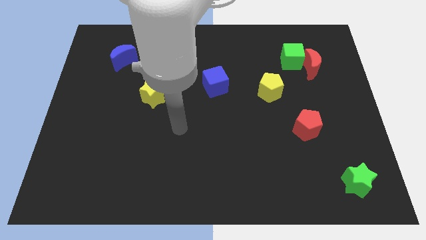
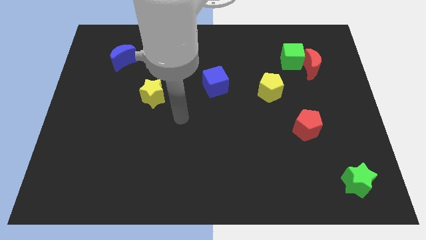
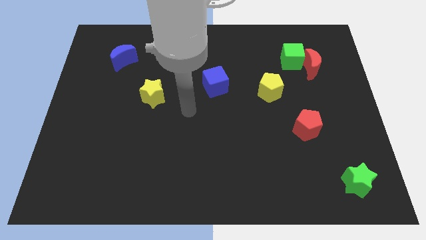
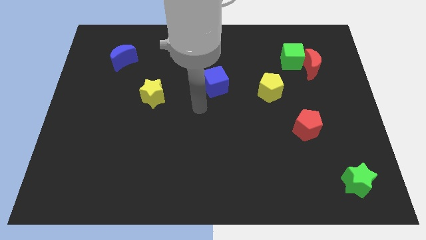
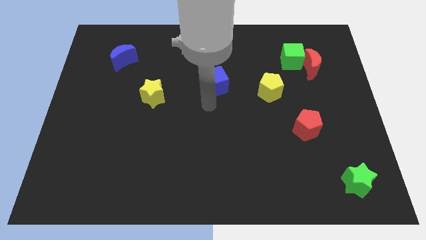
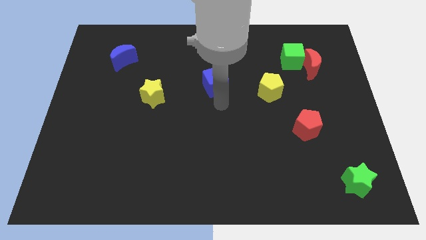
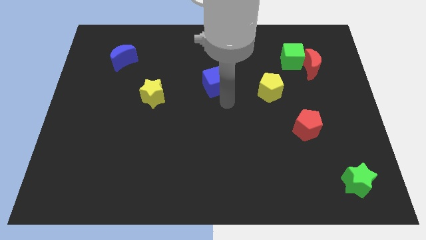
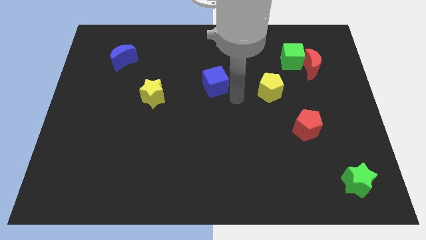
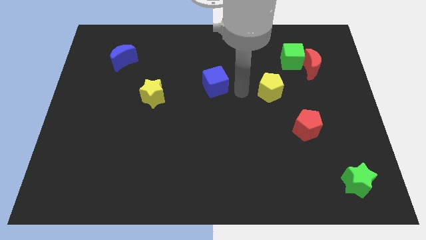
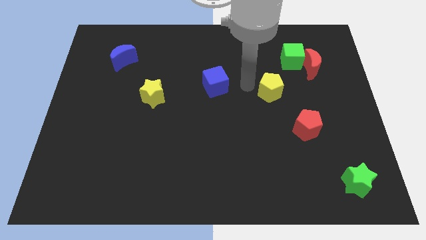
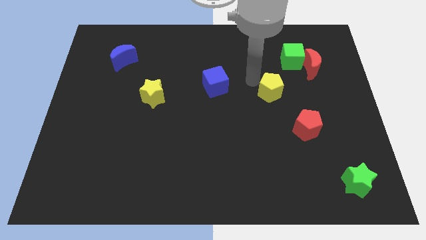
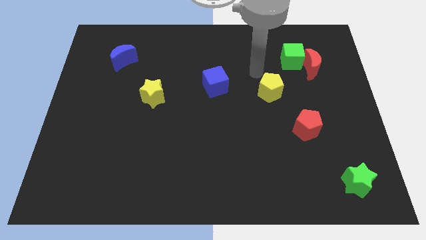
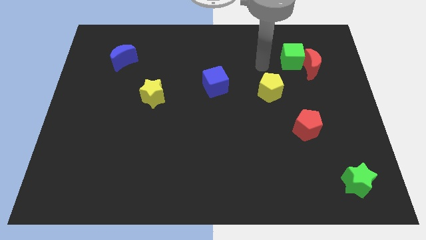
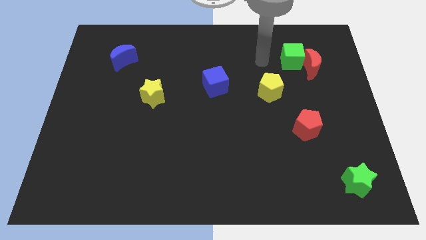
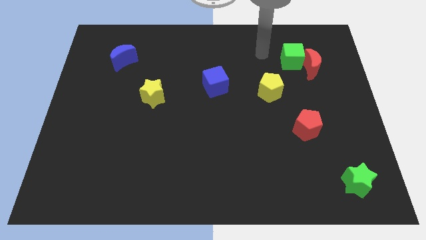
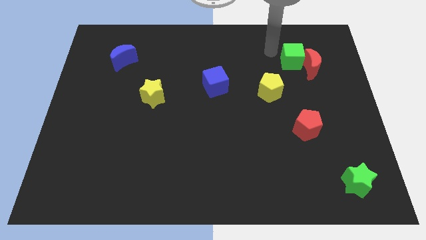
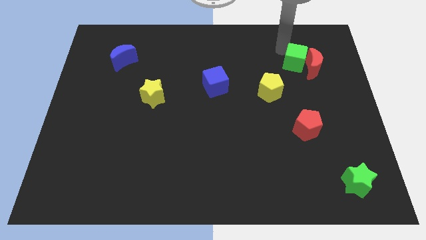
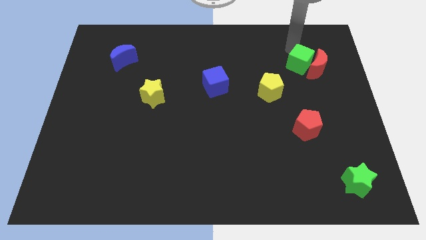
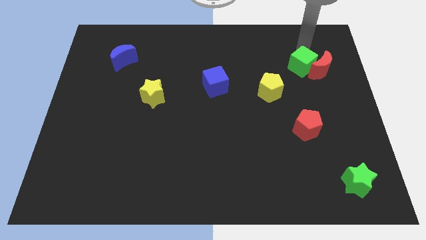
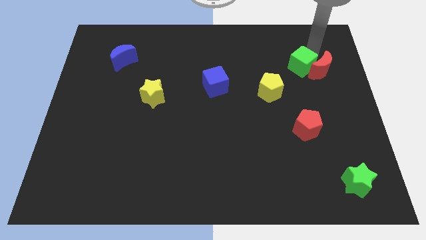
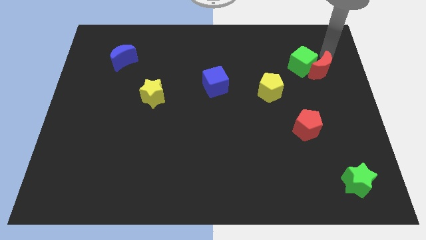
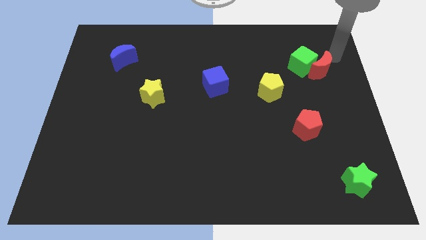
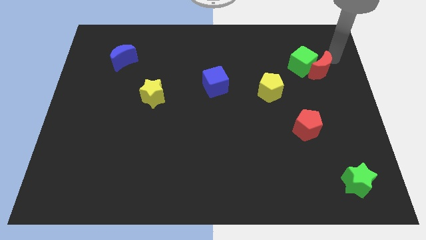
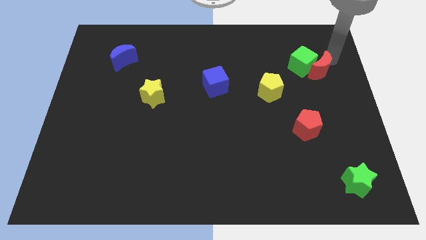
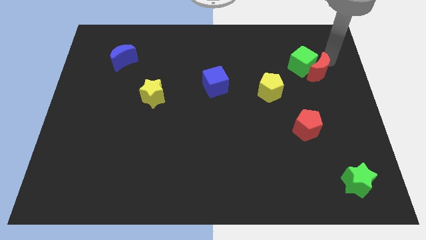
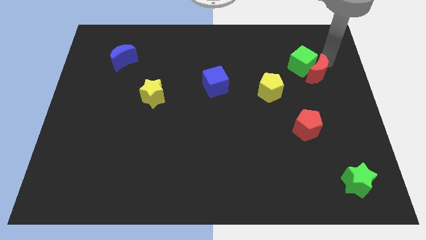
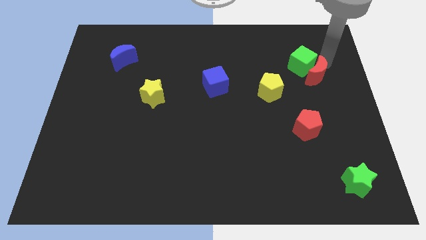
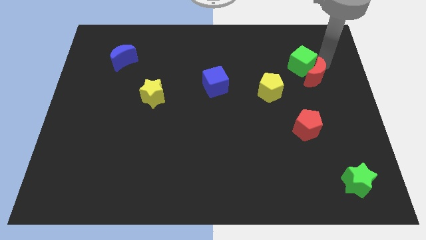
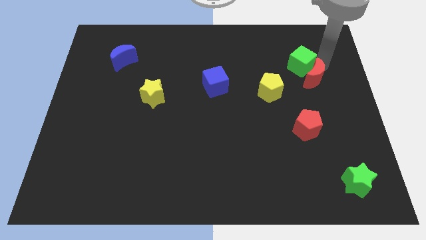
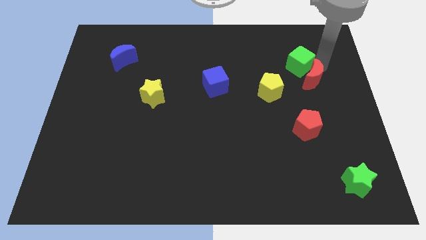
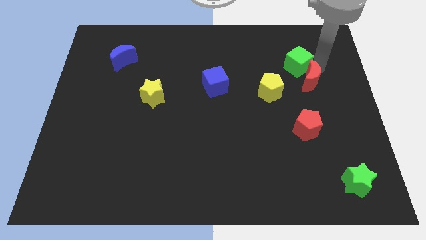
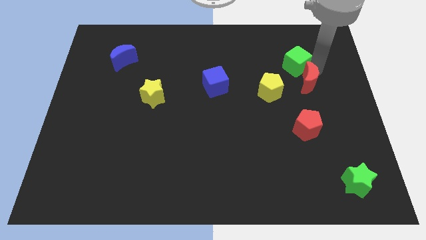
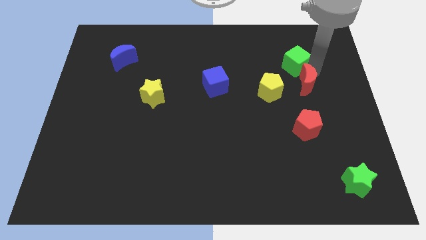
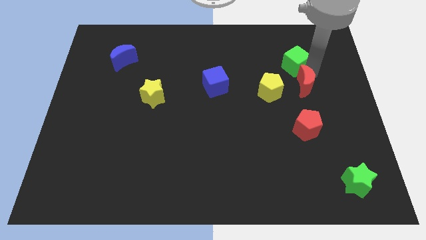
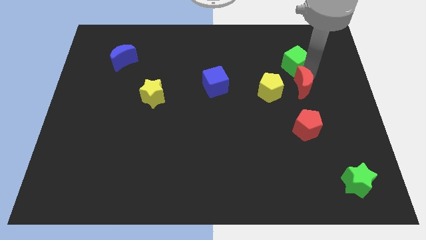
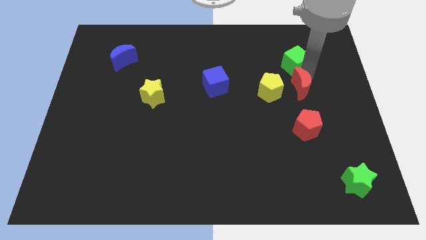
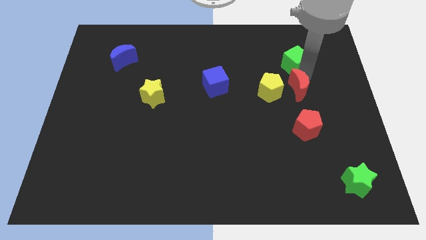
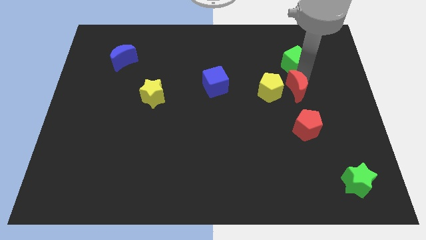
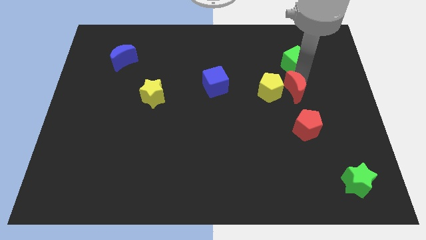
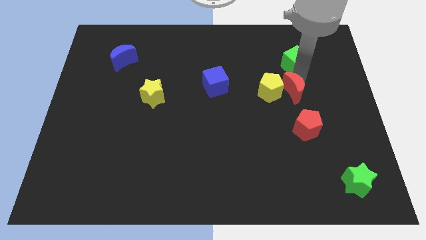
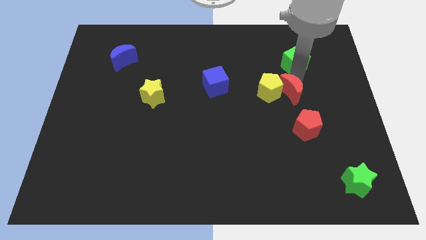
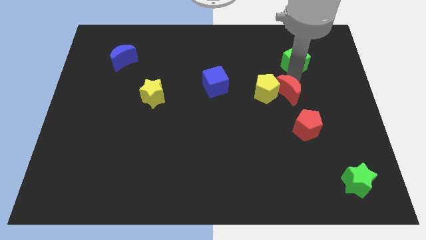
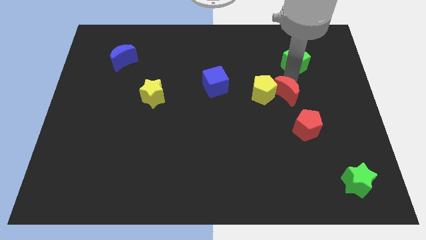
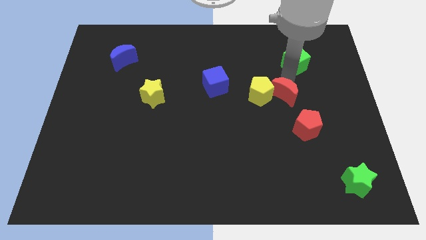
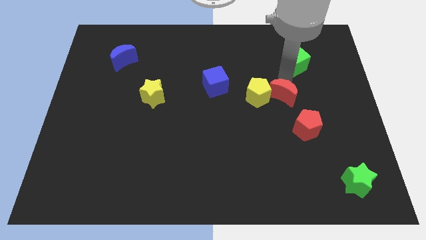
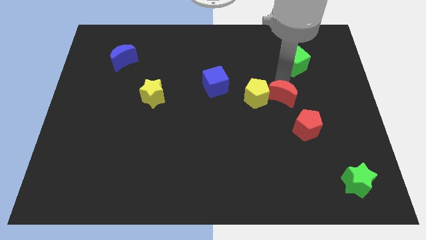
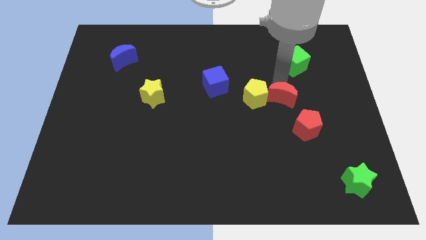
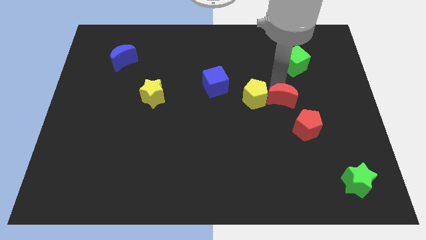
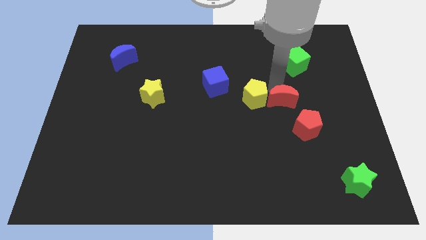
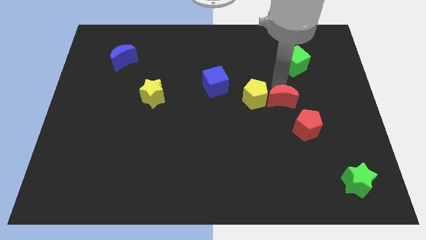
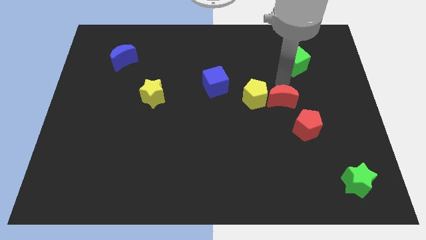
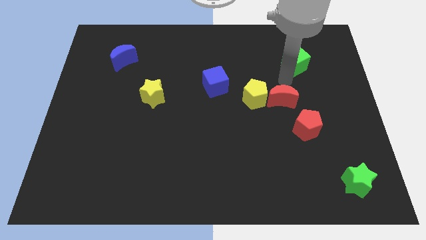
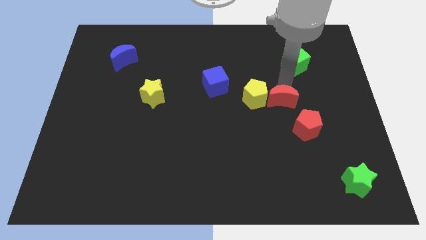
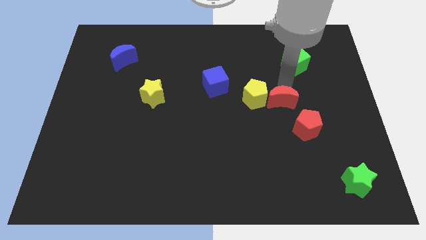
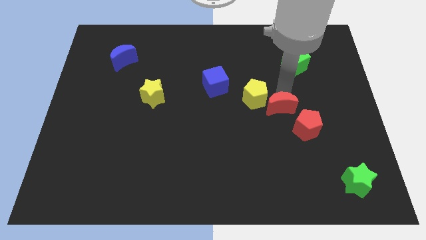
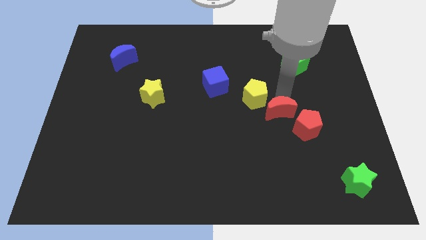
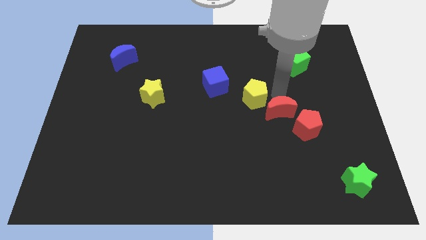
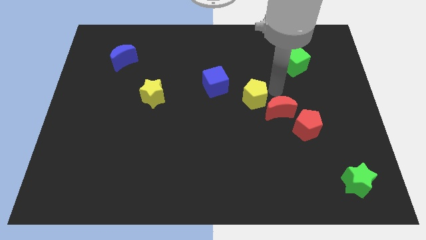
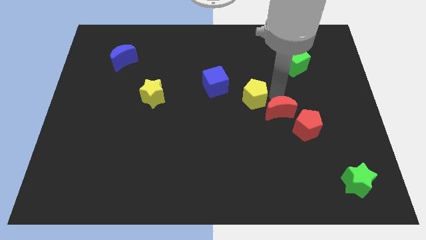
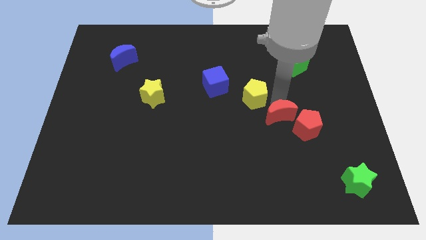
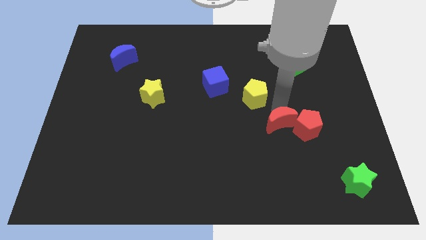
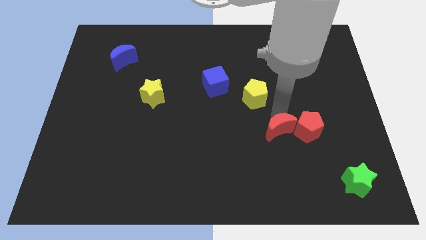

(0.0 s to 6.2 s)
slide the red moon to the bottom left of the red pentagon

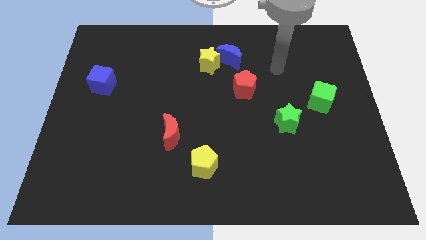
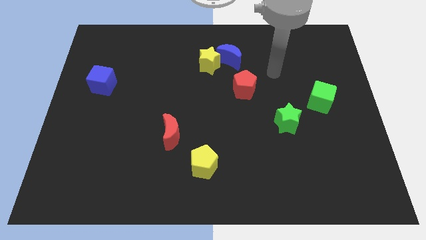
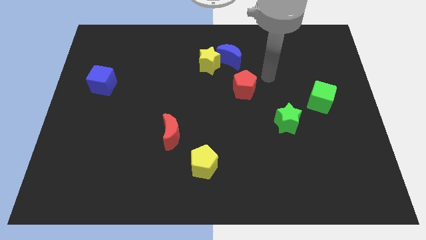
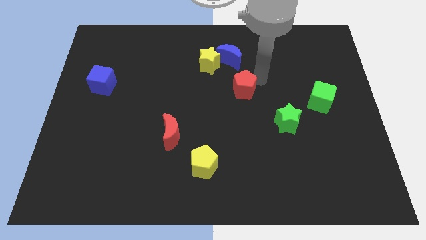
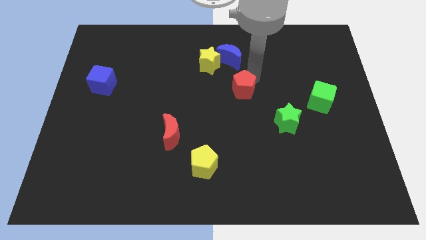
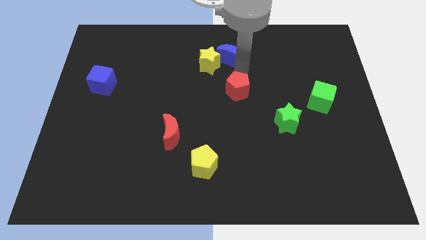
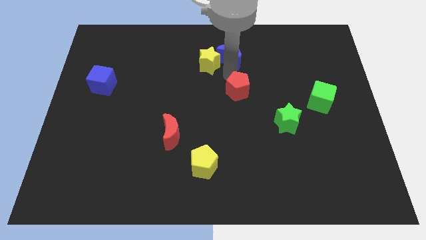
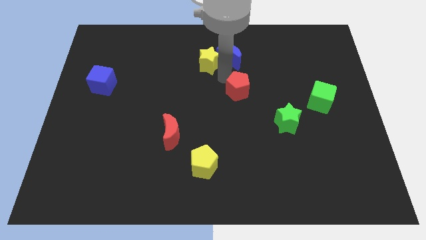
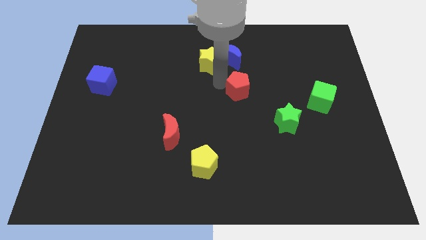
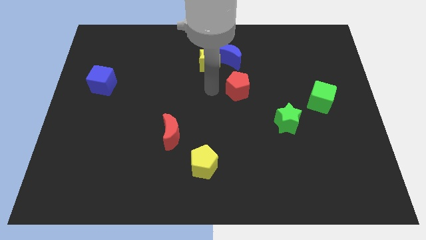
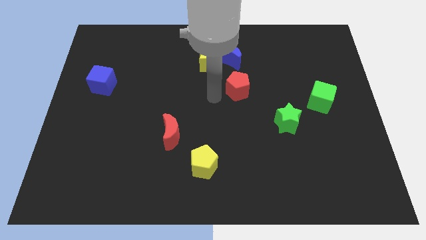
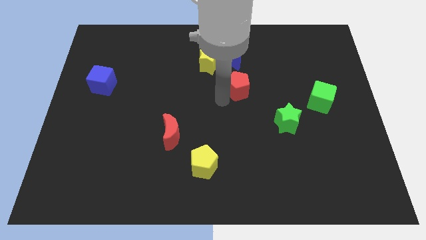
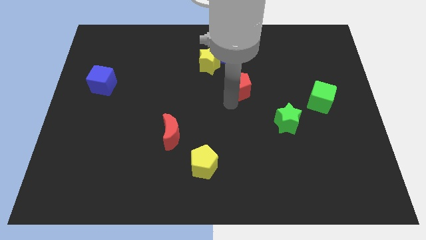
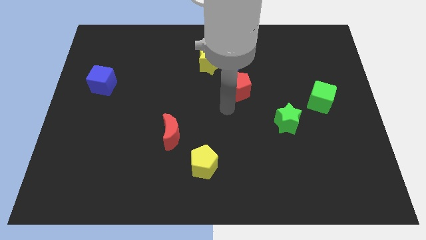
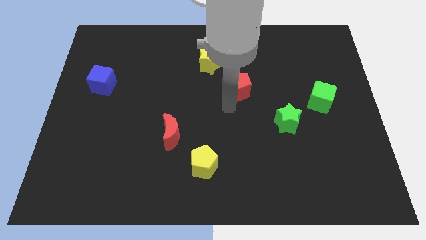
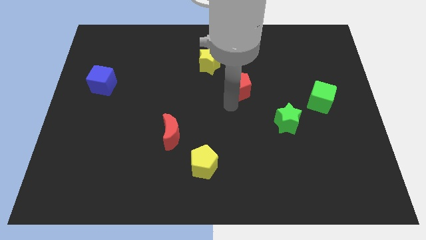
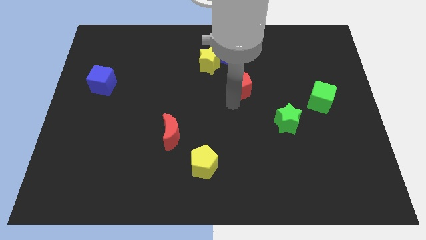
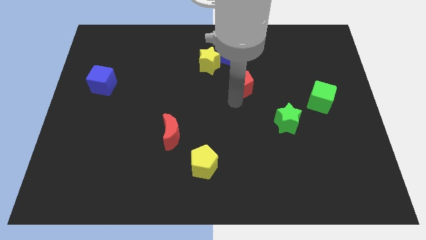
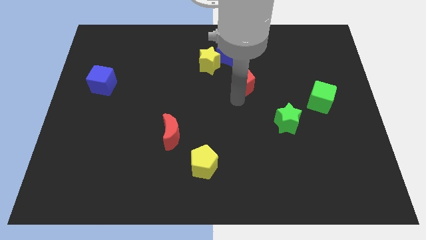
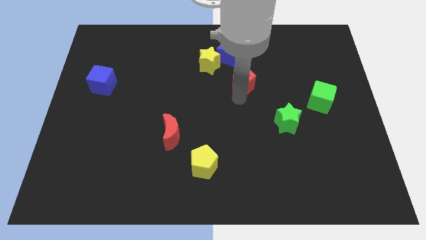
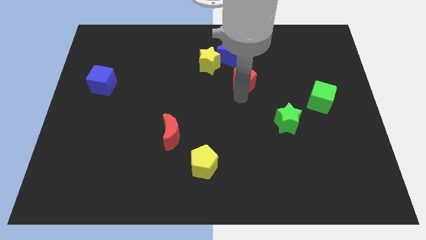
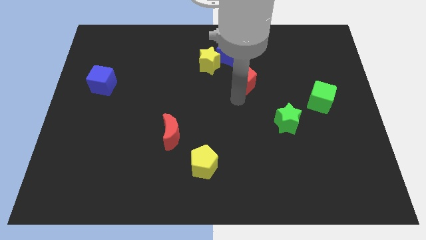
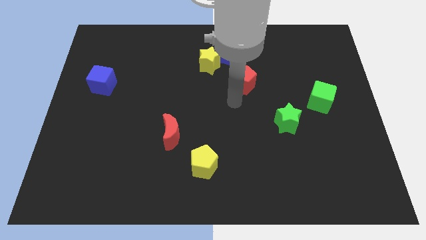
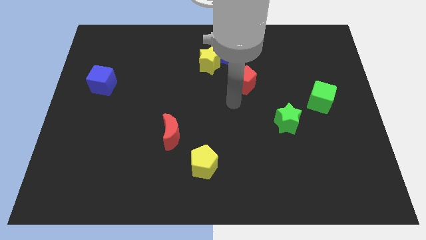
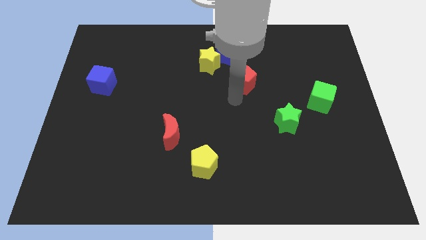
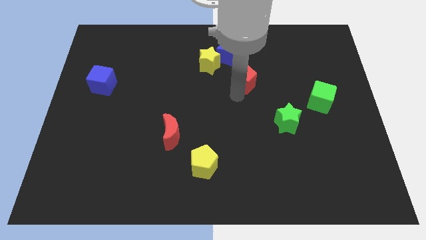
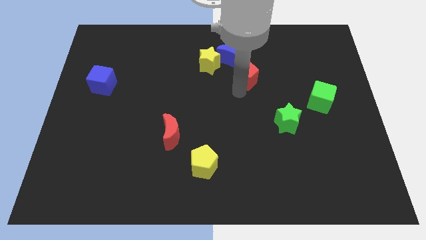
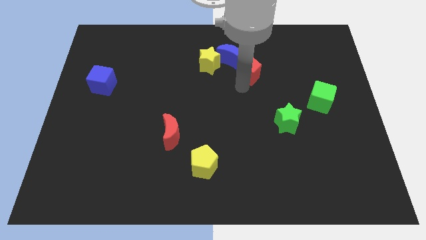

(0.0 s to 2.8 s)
put the red pentagon right of the yellow star
